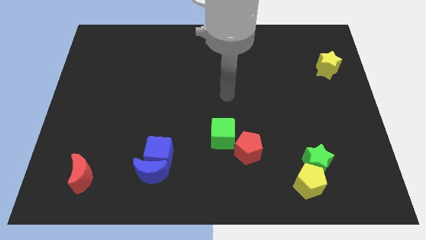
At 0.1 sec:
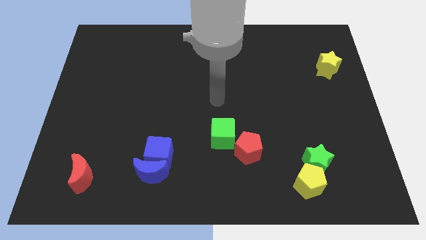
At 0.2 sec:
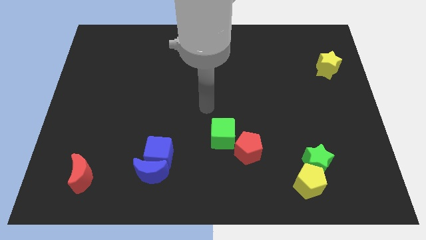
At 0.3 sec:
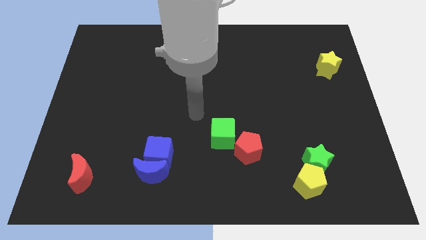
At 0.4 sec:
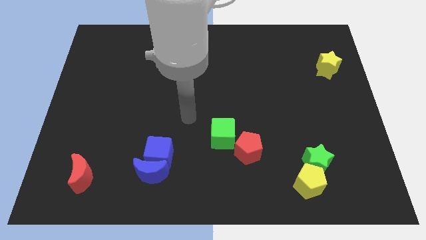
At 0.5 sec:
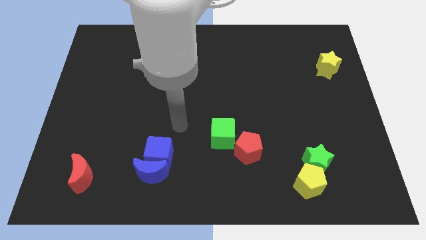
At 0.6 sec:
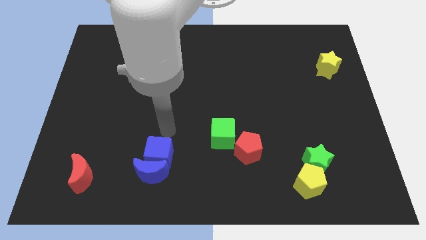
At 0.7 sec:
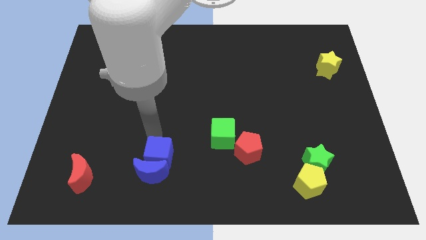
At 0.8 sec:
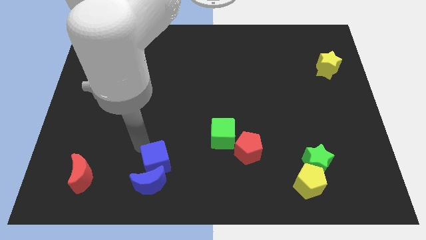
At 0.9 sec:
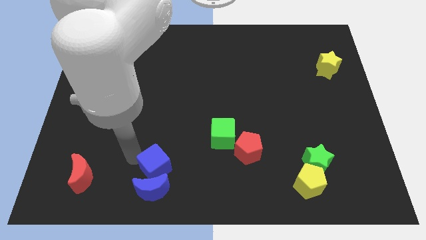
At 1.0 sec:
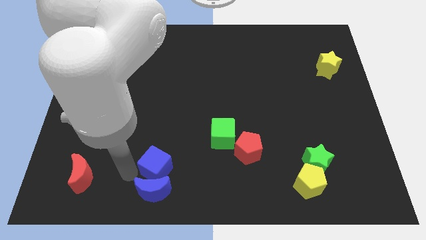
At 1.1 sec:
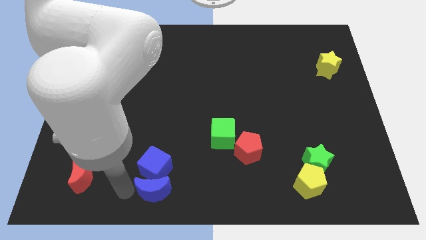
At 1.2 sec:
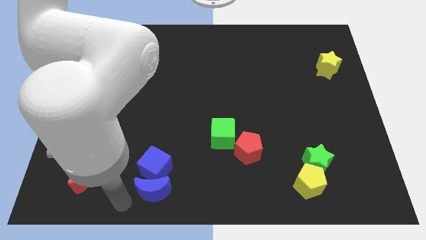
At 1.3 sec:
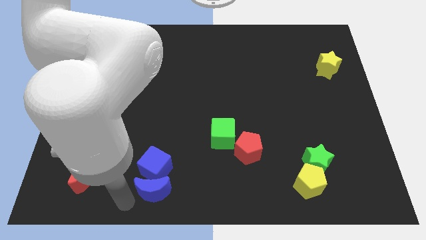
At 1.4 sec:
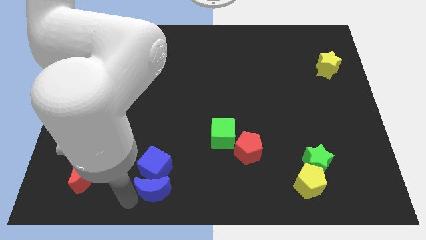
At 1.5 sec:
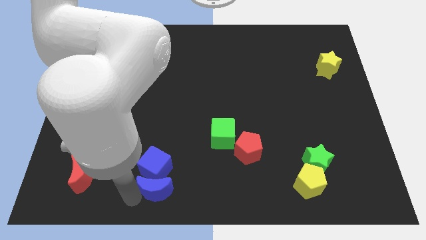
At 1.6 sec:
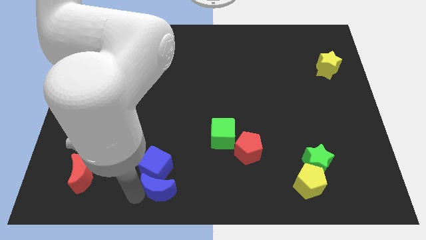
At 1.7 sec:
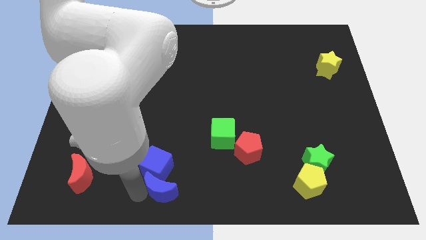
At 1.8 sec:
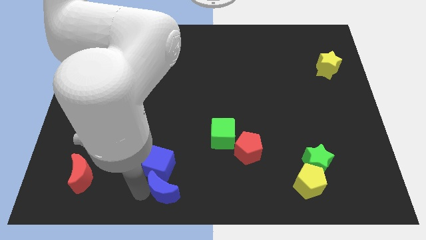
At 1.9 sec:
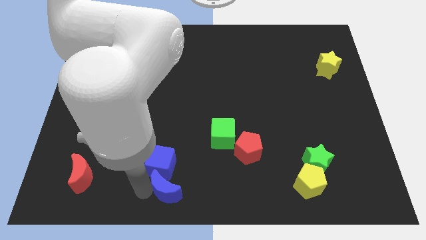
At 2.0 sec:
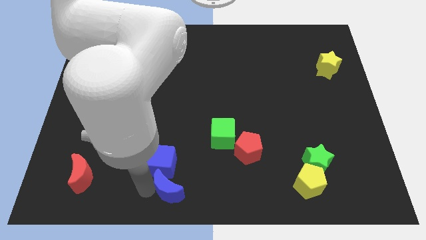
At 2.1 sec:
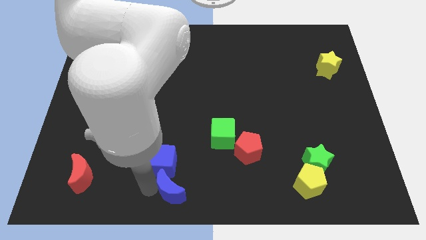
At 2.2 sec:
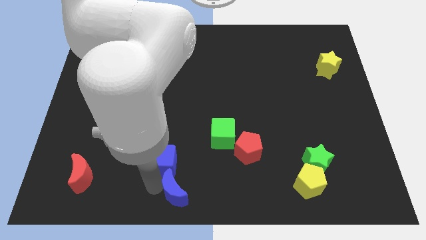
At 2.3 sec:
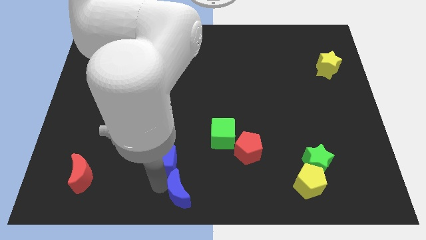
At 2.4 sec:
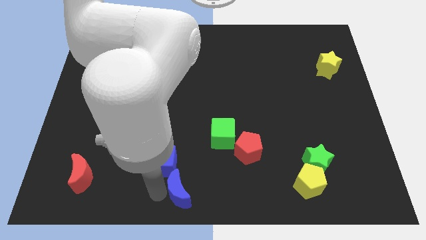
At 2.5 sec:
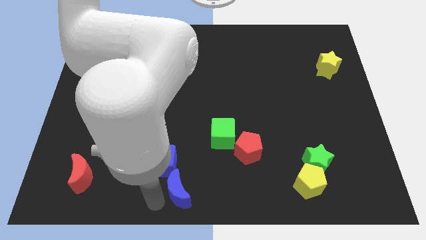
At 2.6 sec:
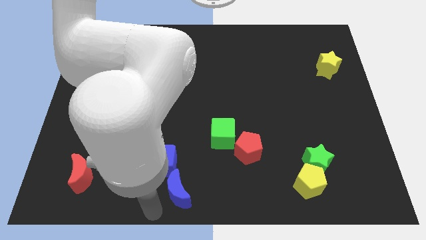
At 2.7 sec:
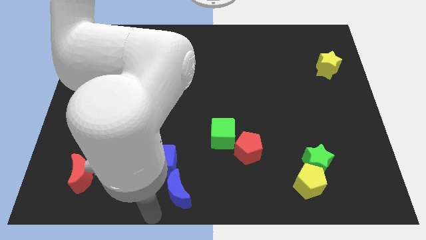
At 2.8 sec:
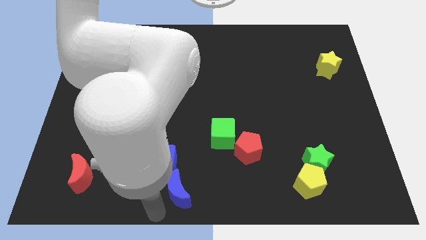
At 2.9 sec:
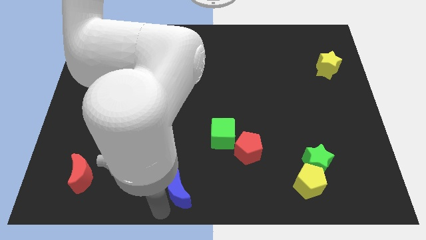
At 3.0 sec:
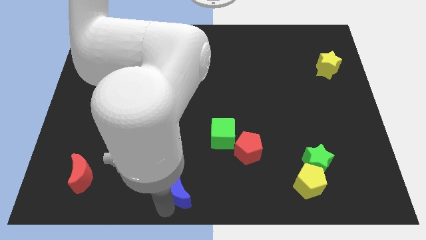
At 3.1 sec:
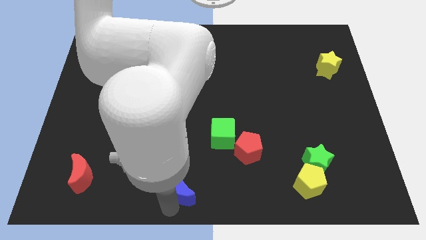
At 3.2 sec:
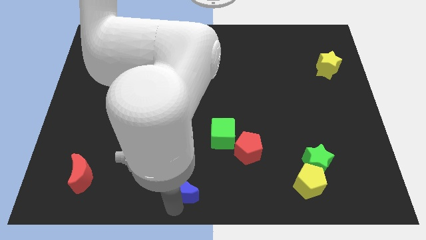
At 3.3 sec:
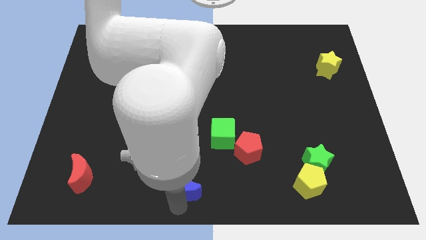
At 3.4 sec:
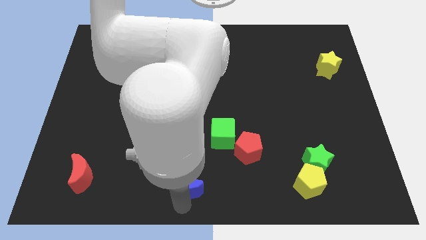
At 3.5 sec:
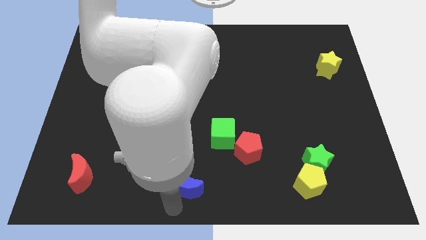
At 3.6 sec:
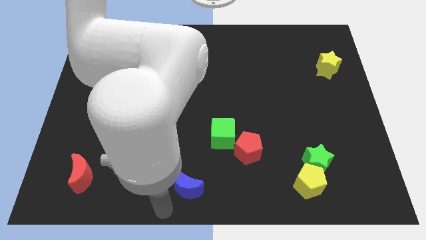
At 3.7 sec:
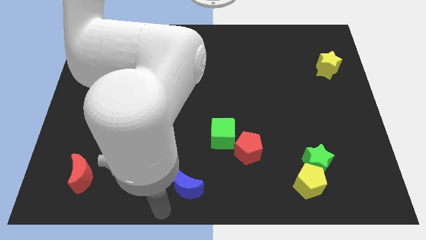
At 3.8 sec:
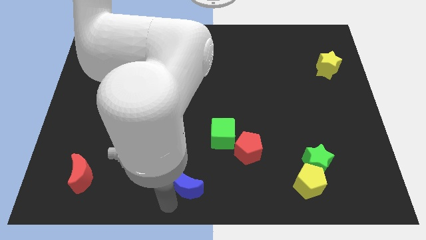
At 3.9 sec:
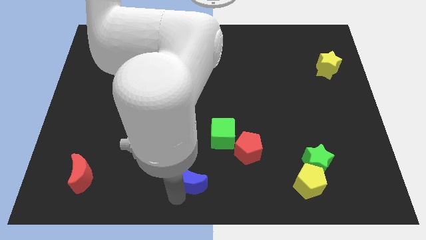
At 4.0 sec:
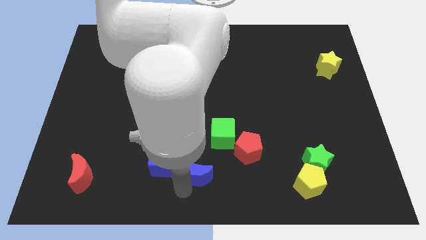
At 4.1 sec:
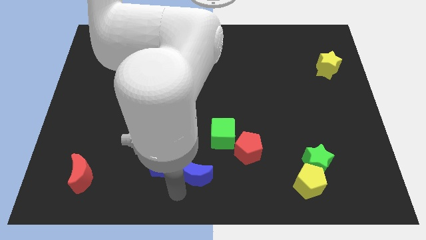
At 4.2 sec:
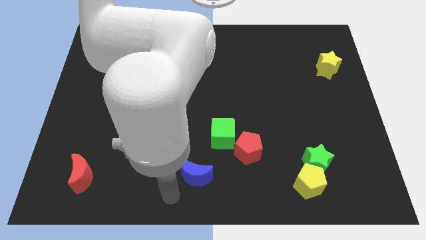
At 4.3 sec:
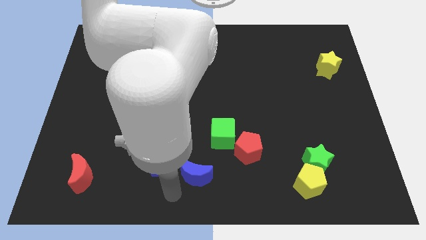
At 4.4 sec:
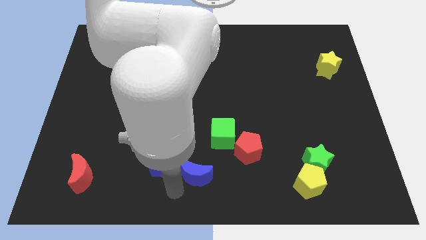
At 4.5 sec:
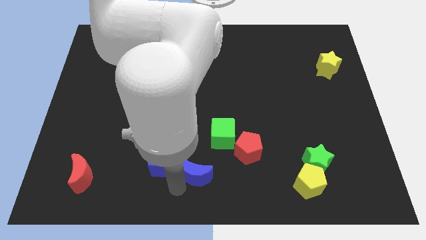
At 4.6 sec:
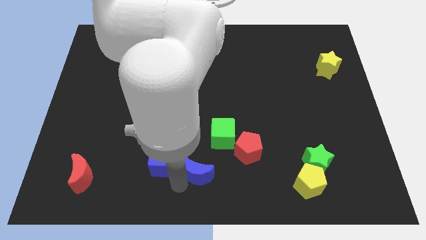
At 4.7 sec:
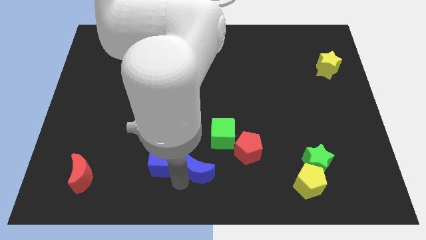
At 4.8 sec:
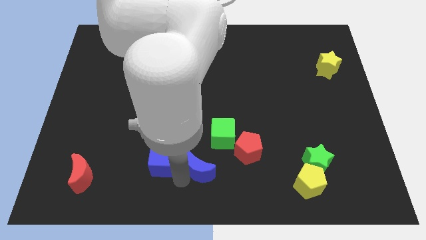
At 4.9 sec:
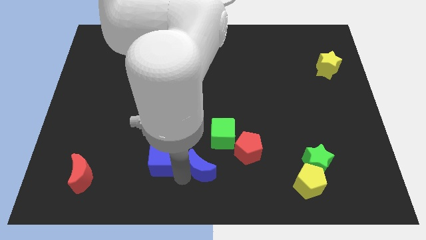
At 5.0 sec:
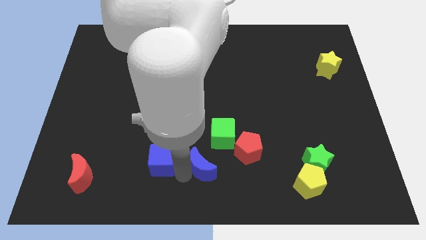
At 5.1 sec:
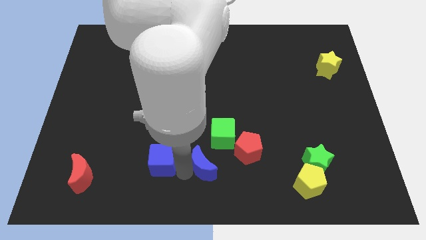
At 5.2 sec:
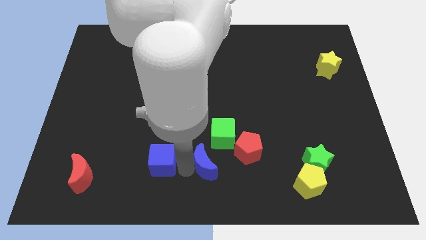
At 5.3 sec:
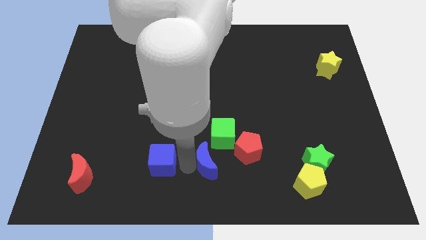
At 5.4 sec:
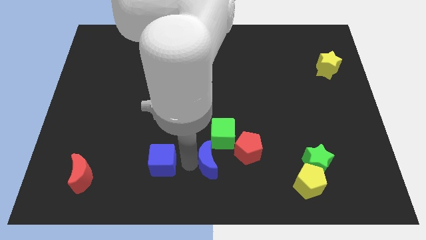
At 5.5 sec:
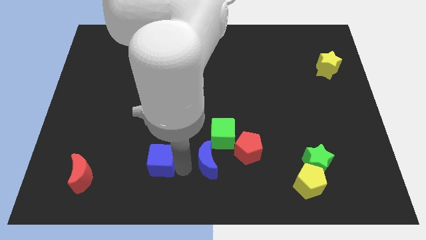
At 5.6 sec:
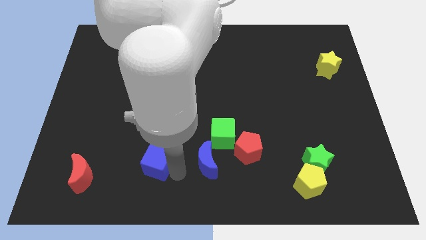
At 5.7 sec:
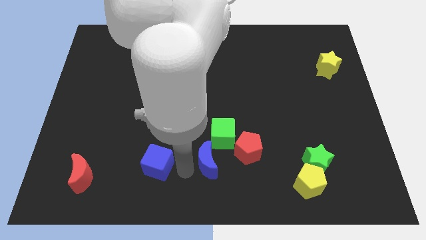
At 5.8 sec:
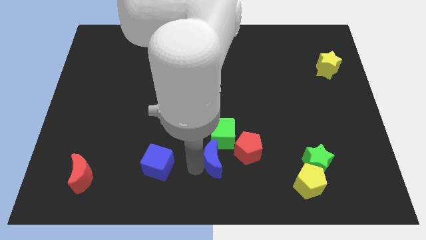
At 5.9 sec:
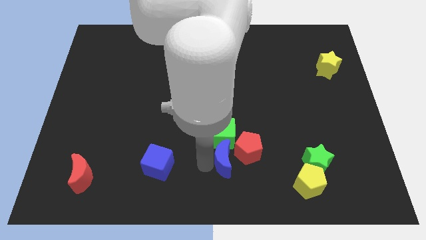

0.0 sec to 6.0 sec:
push the blue moon close to the red pentagon
